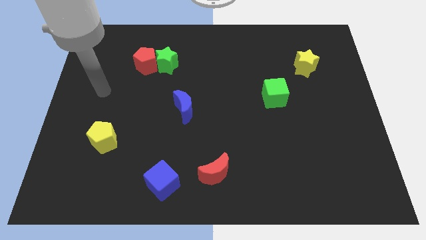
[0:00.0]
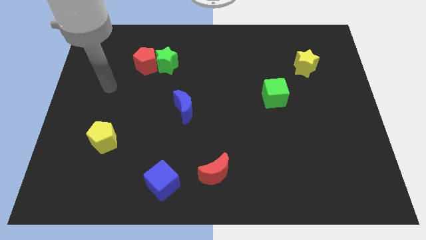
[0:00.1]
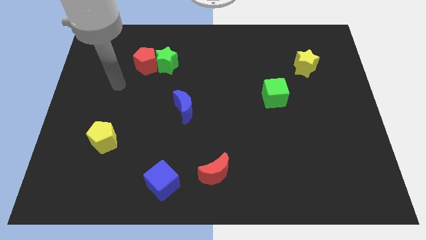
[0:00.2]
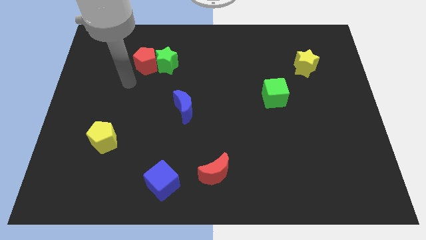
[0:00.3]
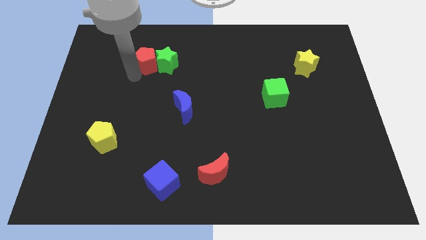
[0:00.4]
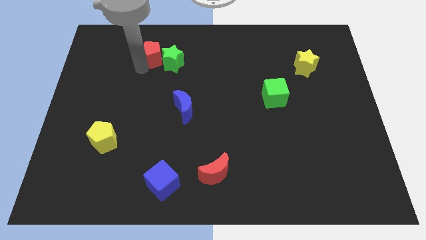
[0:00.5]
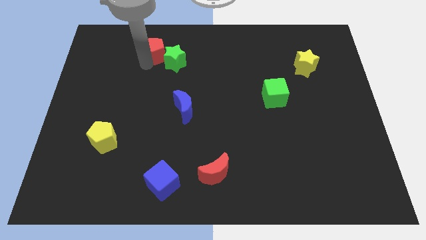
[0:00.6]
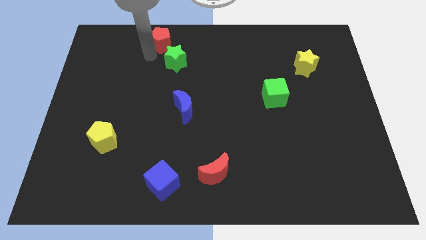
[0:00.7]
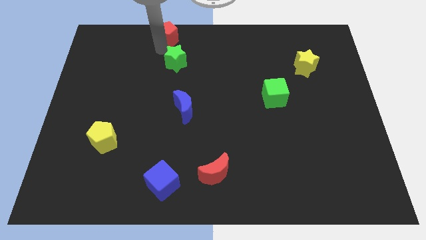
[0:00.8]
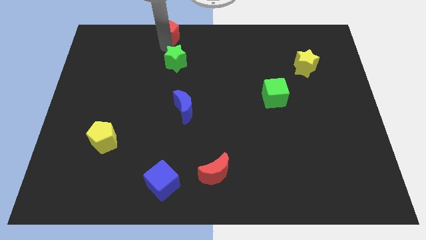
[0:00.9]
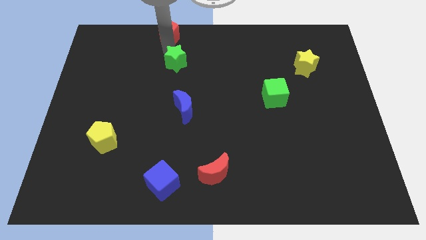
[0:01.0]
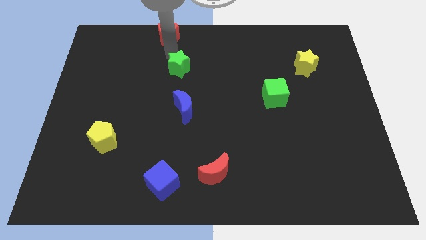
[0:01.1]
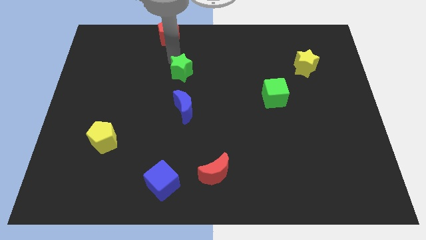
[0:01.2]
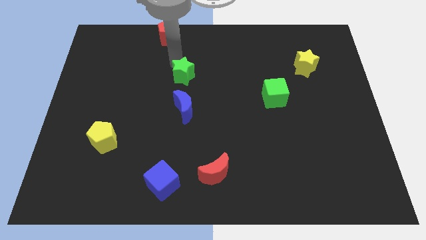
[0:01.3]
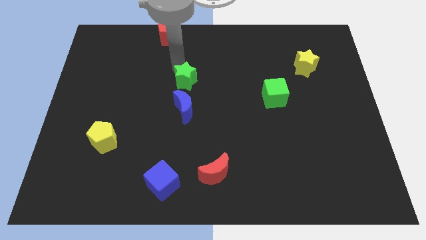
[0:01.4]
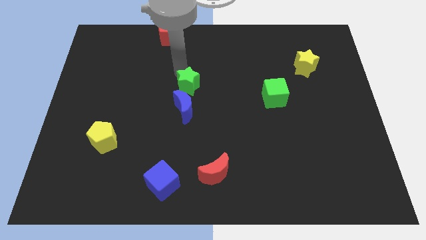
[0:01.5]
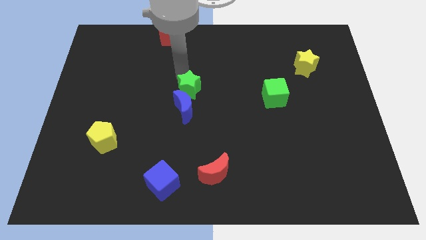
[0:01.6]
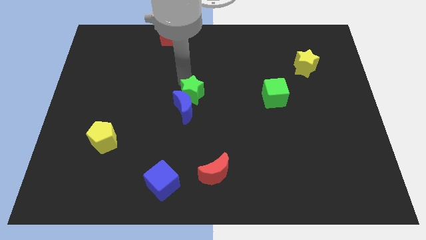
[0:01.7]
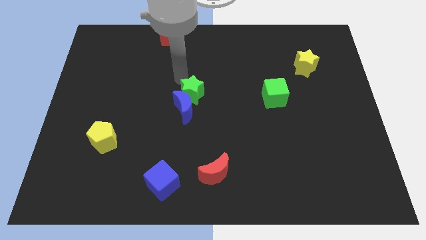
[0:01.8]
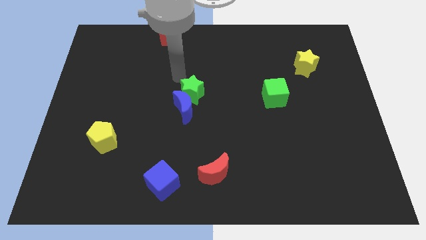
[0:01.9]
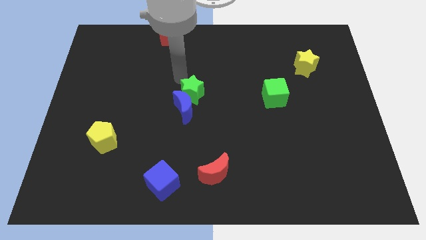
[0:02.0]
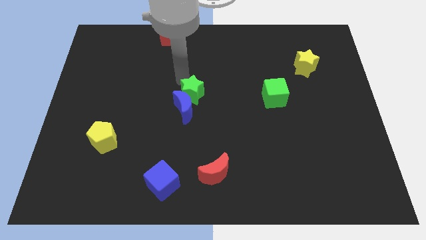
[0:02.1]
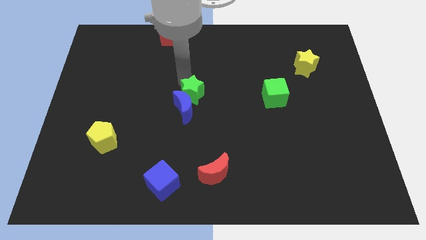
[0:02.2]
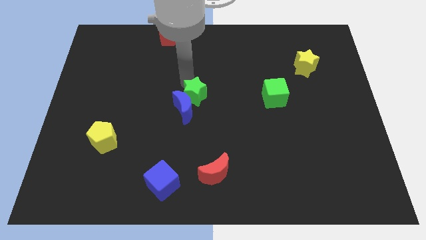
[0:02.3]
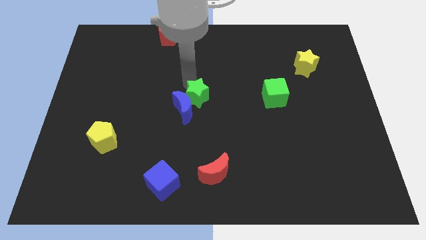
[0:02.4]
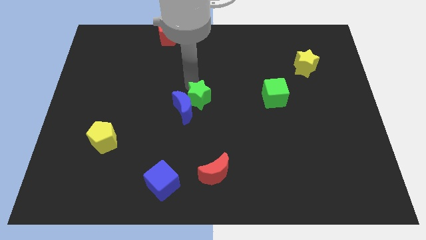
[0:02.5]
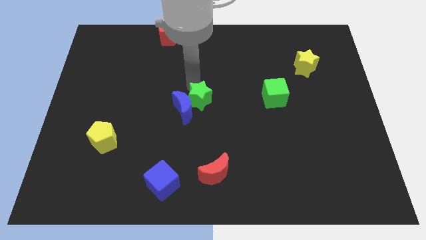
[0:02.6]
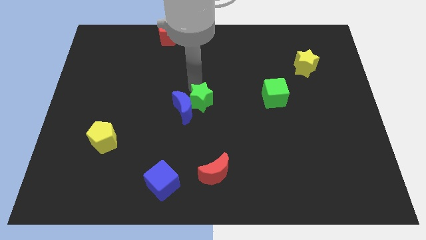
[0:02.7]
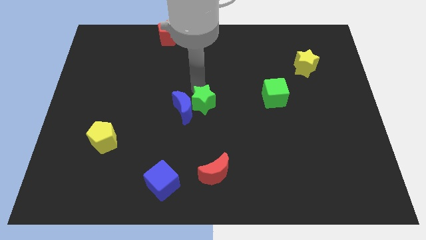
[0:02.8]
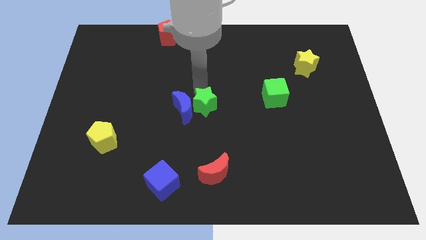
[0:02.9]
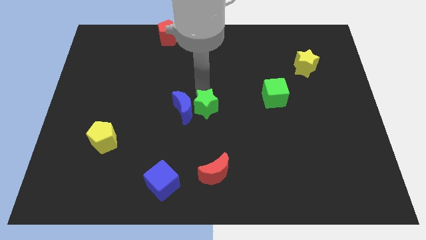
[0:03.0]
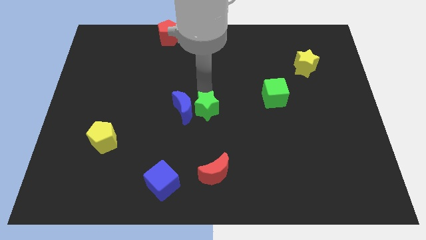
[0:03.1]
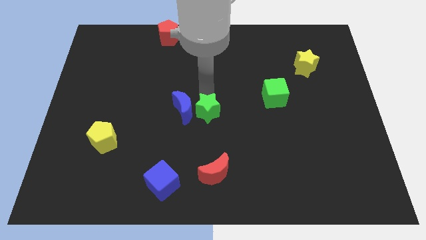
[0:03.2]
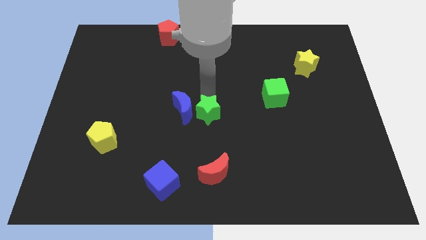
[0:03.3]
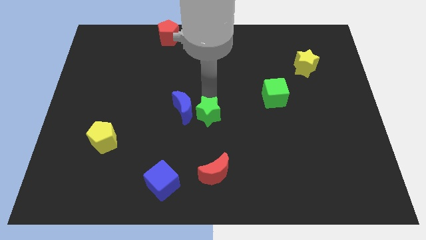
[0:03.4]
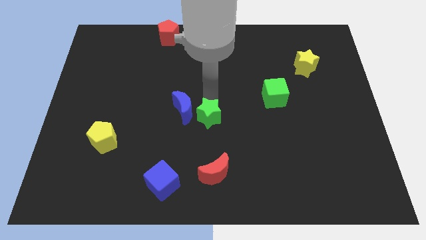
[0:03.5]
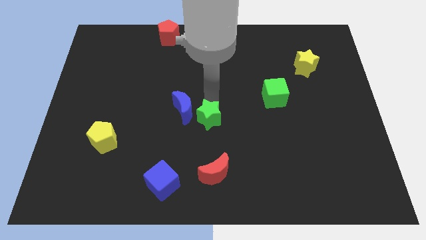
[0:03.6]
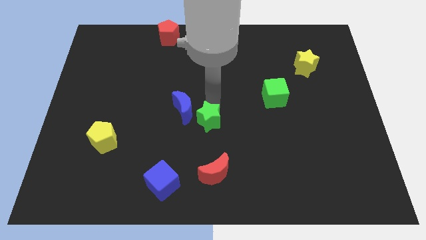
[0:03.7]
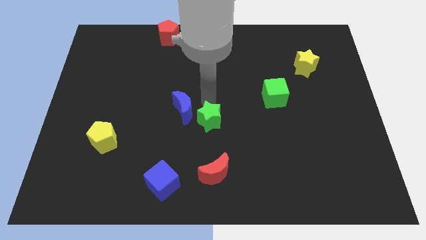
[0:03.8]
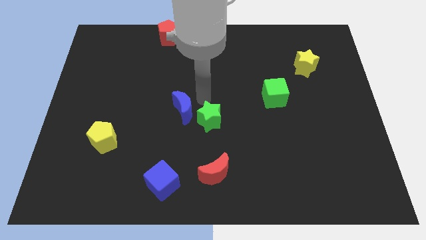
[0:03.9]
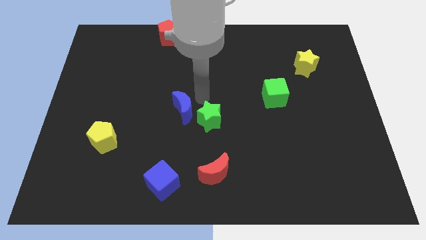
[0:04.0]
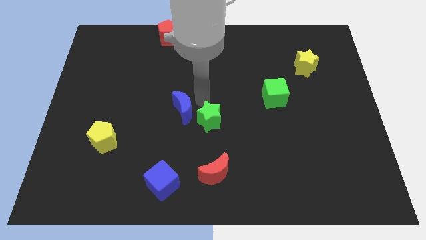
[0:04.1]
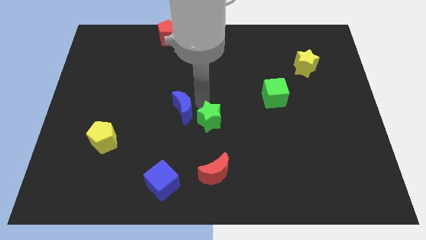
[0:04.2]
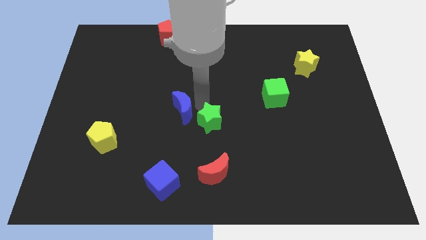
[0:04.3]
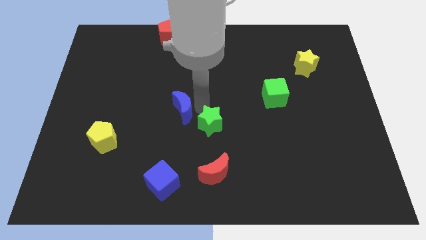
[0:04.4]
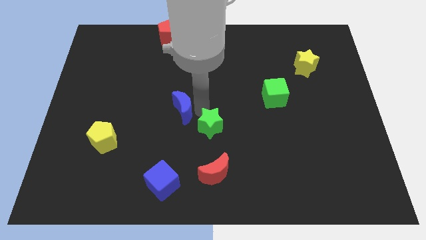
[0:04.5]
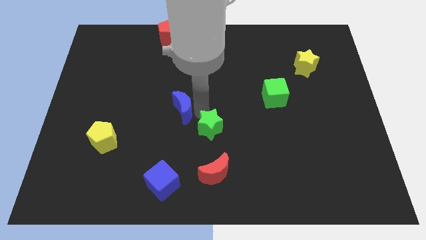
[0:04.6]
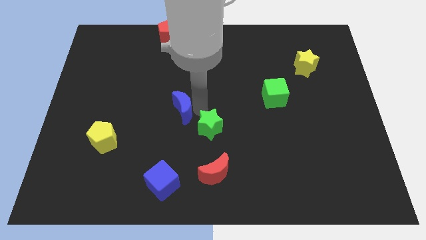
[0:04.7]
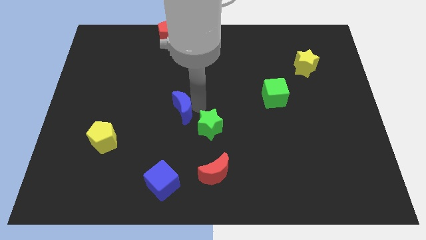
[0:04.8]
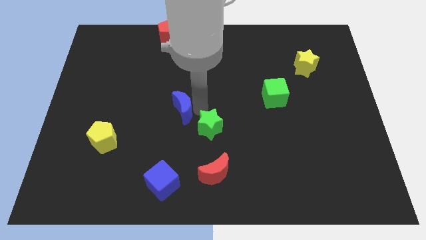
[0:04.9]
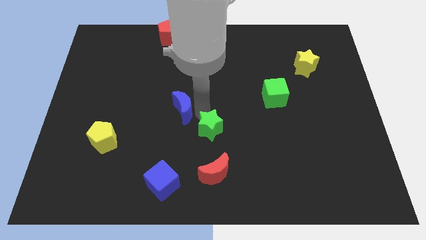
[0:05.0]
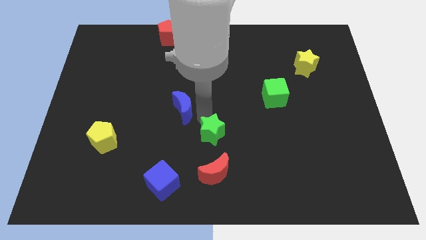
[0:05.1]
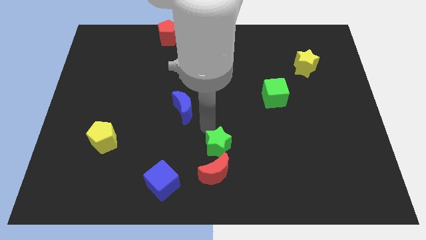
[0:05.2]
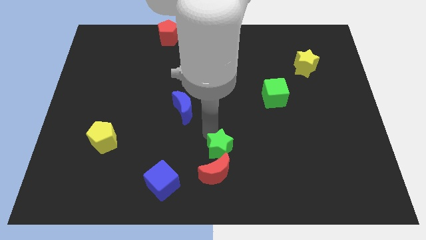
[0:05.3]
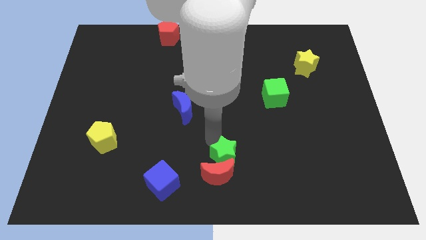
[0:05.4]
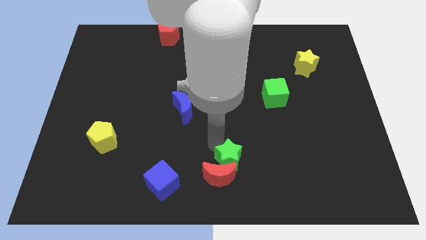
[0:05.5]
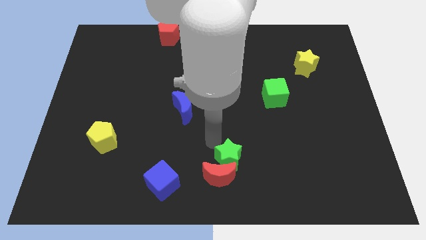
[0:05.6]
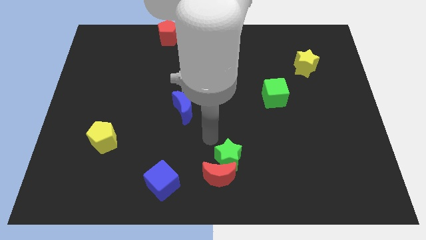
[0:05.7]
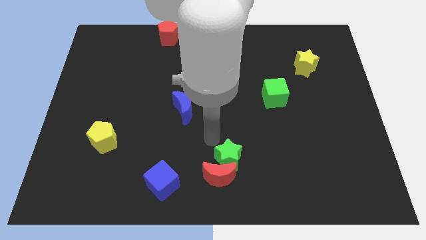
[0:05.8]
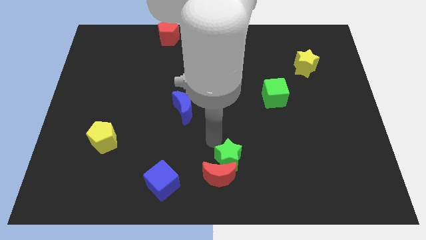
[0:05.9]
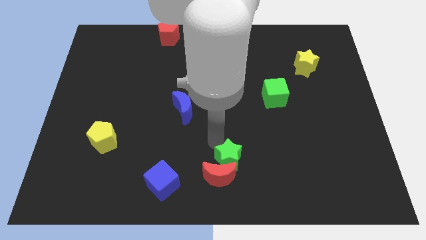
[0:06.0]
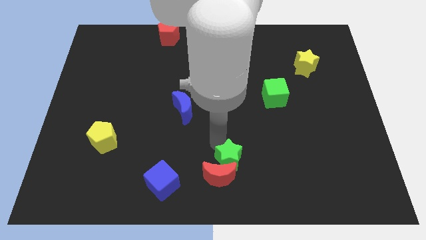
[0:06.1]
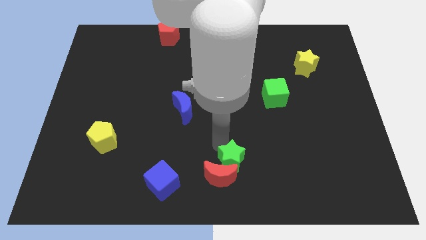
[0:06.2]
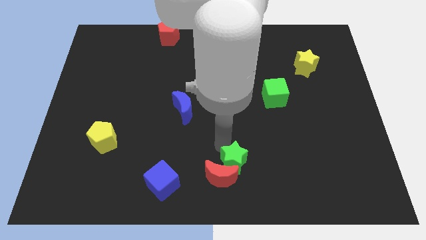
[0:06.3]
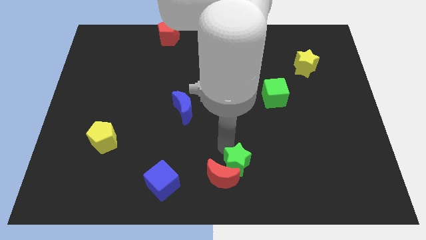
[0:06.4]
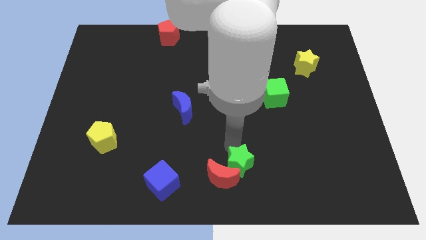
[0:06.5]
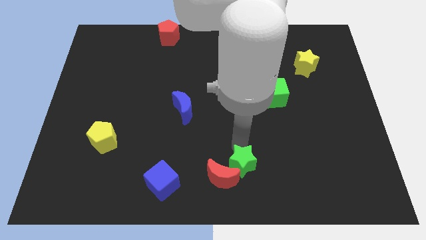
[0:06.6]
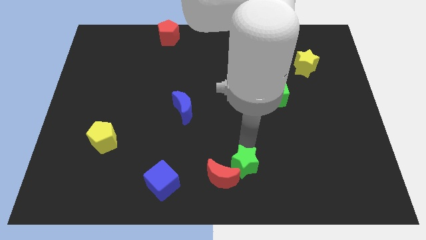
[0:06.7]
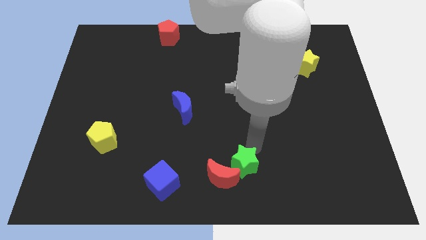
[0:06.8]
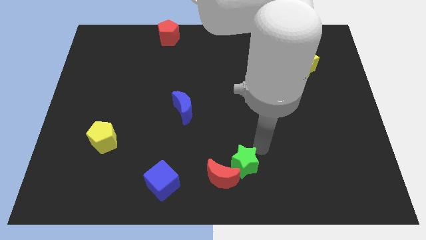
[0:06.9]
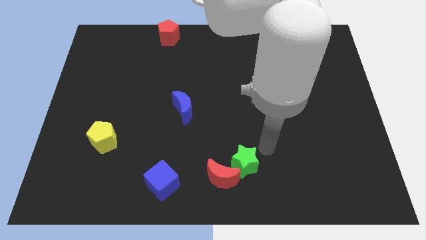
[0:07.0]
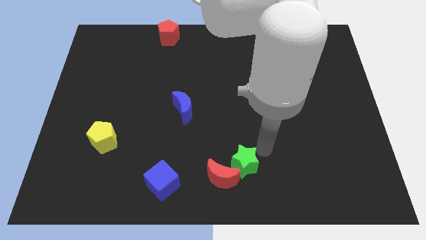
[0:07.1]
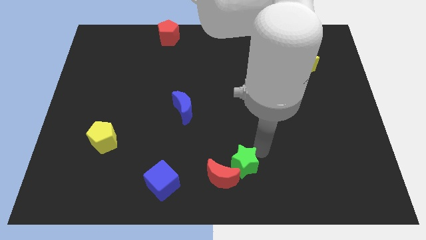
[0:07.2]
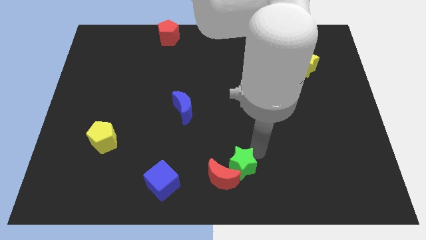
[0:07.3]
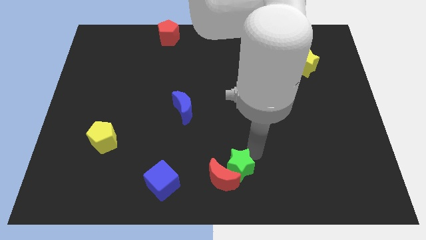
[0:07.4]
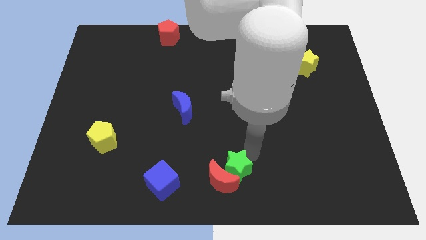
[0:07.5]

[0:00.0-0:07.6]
slide the green star to the right of the blue cube

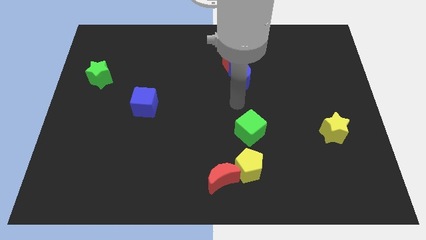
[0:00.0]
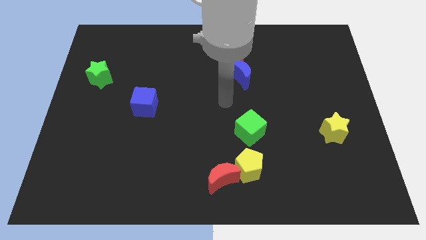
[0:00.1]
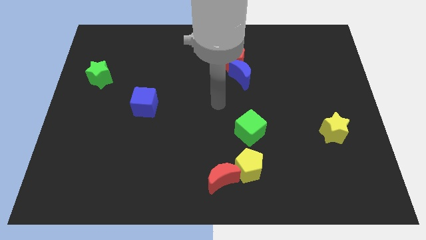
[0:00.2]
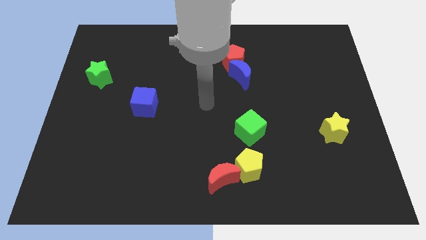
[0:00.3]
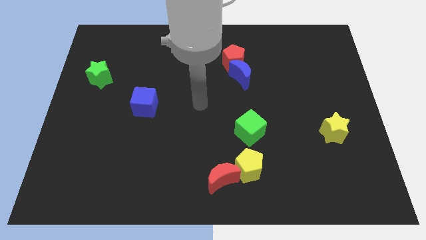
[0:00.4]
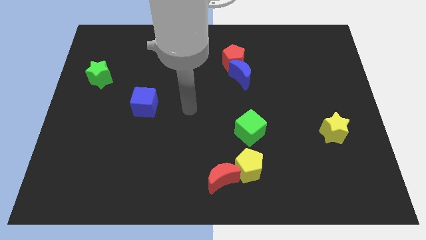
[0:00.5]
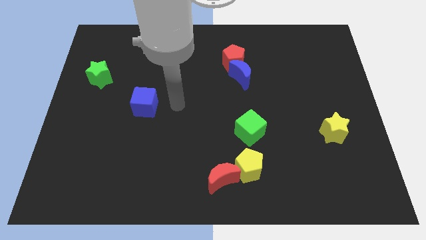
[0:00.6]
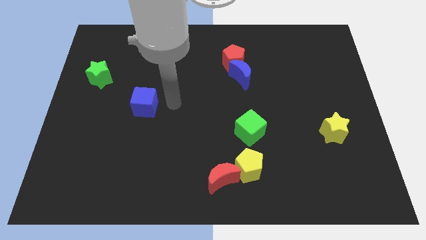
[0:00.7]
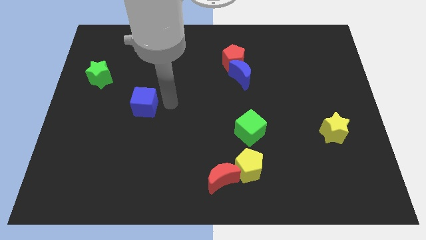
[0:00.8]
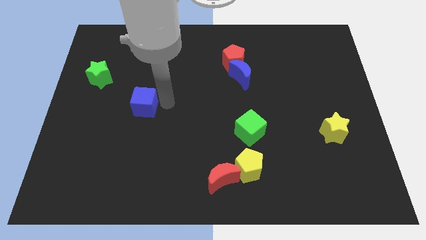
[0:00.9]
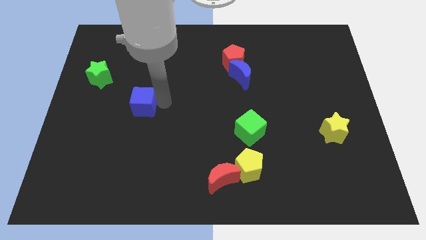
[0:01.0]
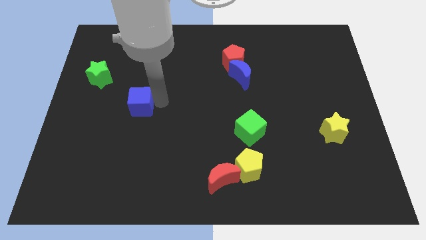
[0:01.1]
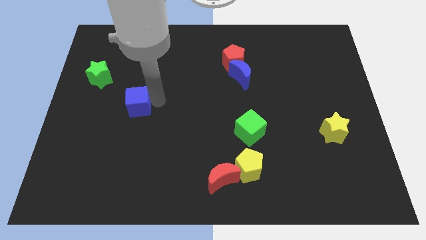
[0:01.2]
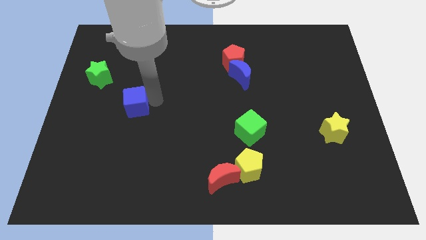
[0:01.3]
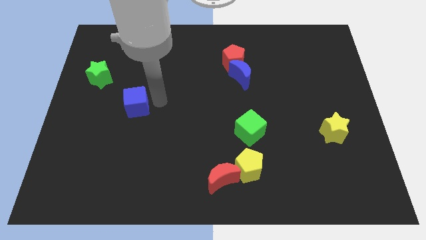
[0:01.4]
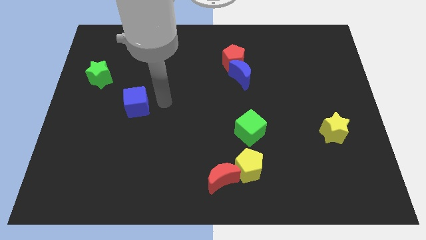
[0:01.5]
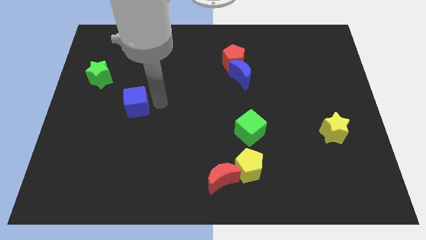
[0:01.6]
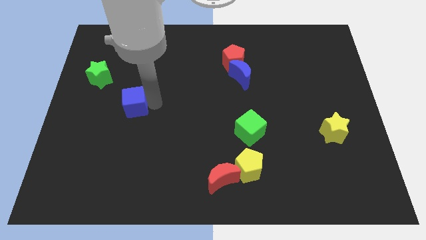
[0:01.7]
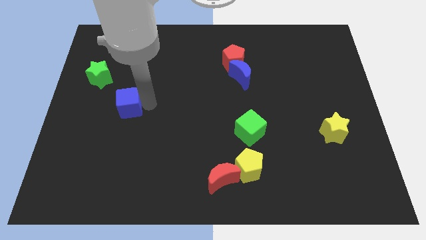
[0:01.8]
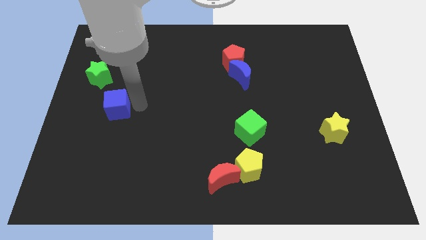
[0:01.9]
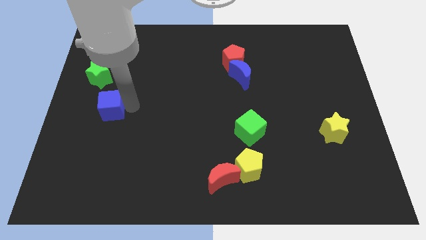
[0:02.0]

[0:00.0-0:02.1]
slide the blue cube below the green star
